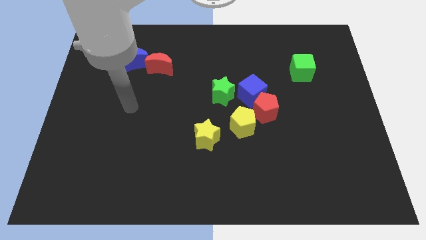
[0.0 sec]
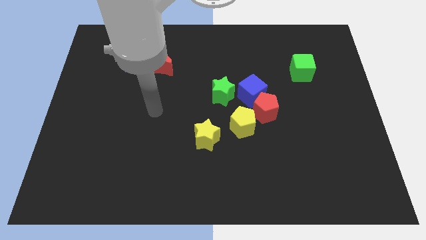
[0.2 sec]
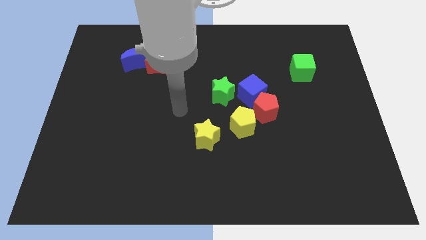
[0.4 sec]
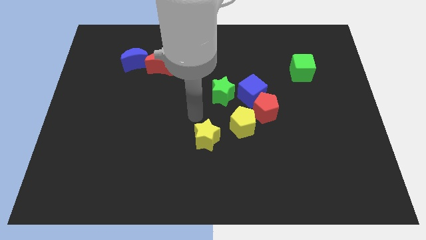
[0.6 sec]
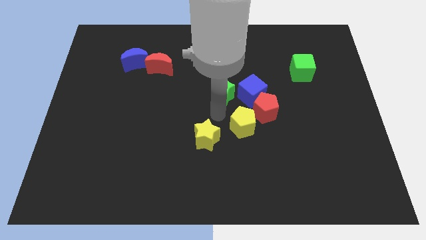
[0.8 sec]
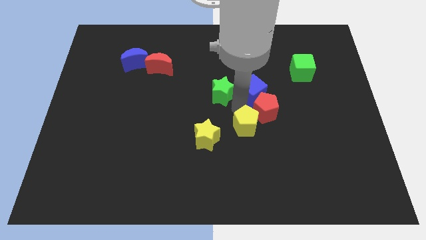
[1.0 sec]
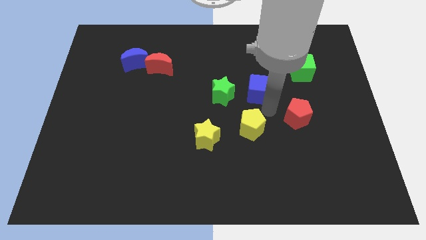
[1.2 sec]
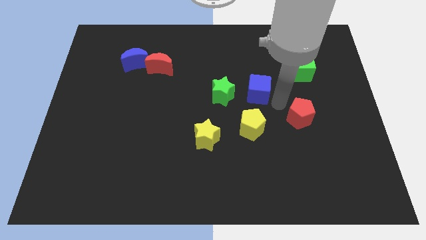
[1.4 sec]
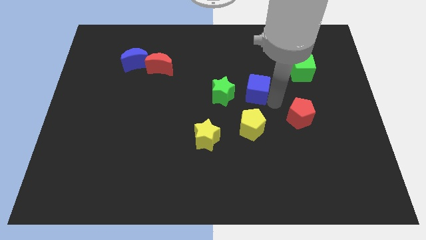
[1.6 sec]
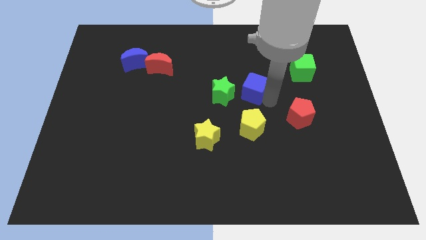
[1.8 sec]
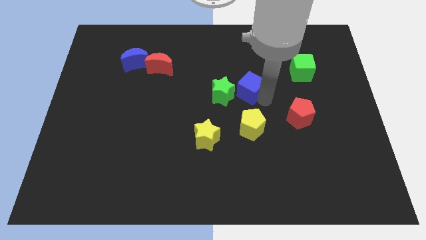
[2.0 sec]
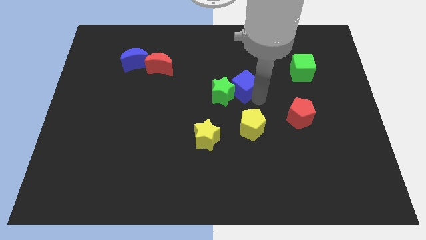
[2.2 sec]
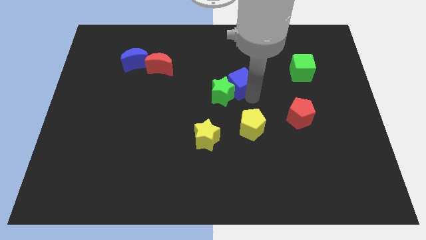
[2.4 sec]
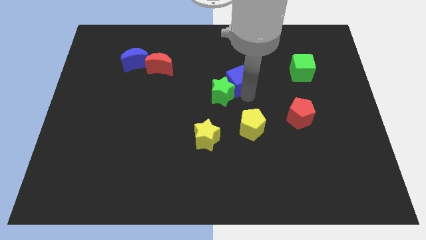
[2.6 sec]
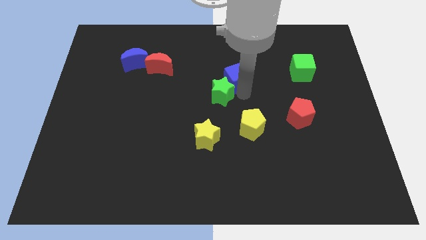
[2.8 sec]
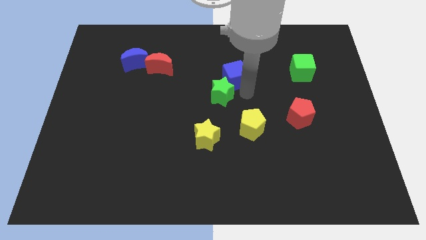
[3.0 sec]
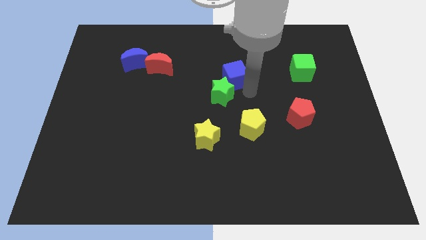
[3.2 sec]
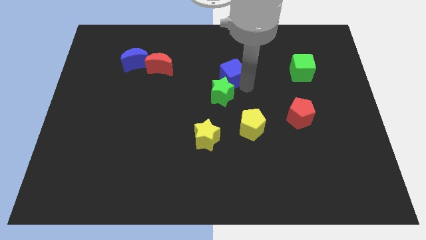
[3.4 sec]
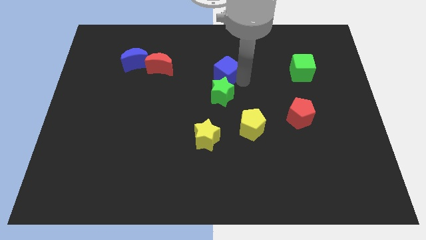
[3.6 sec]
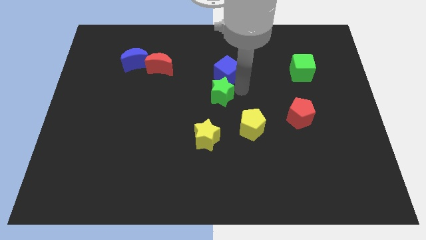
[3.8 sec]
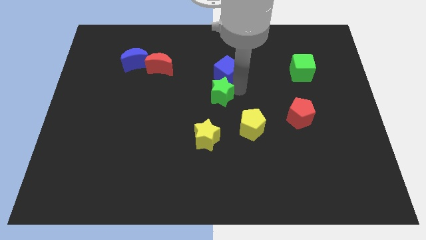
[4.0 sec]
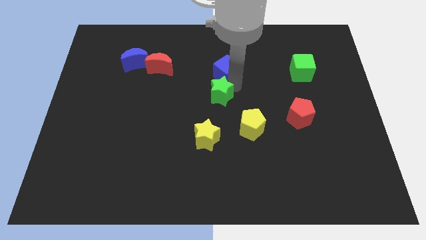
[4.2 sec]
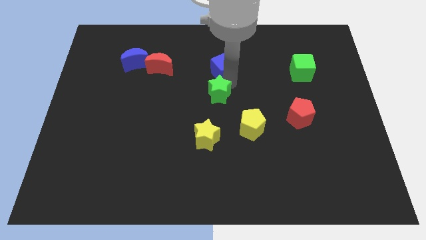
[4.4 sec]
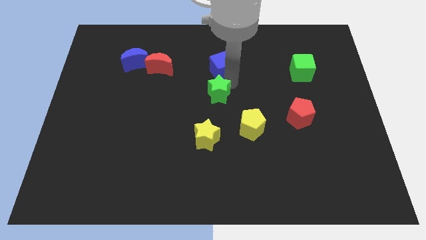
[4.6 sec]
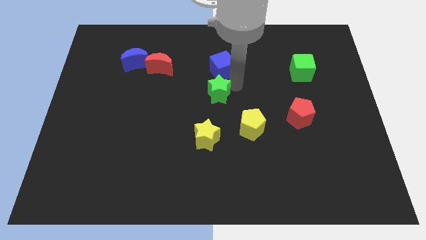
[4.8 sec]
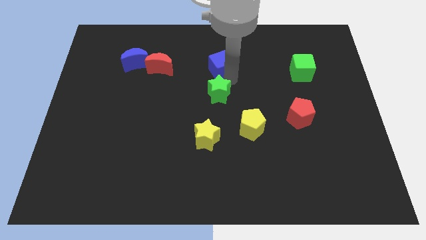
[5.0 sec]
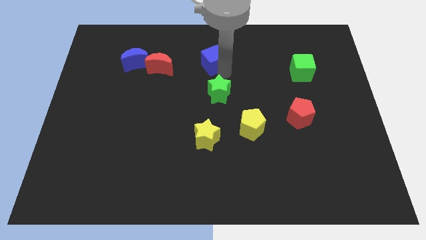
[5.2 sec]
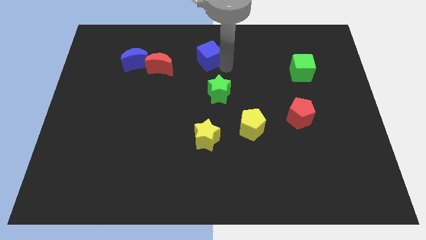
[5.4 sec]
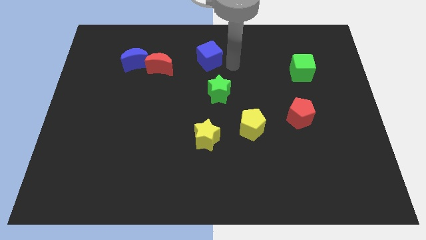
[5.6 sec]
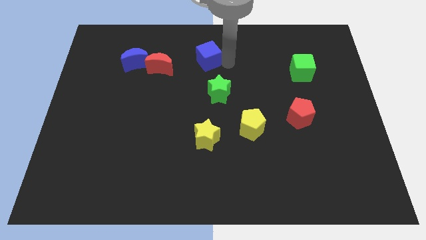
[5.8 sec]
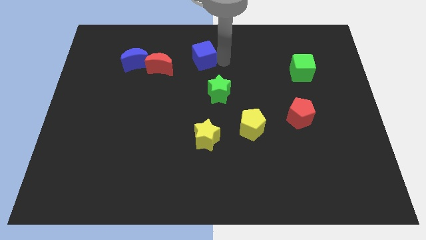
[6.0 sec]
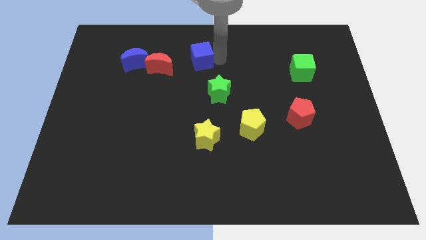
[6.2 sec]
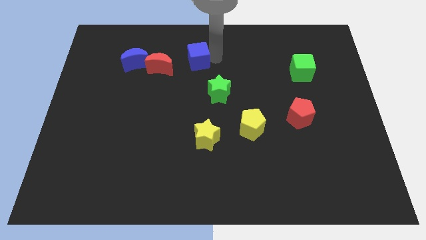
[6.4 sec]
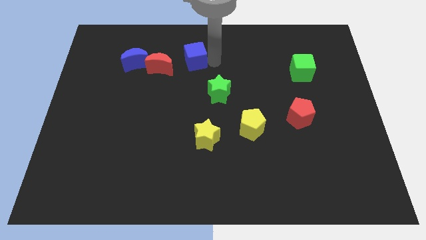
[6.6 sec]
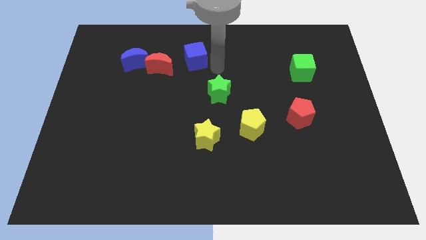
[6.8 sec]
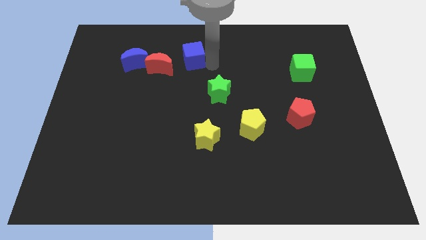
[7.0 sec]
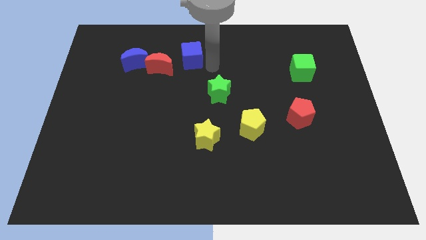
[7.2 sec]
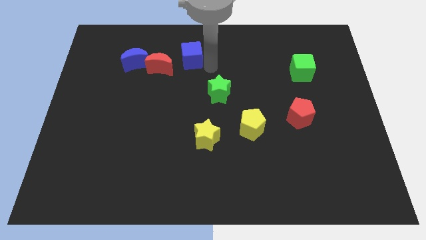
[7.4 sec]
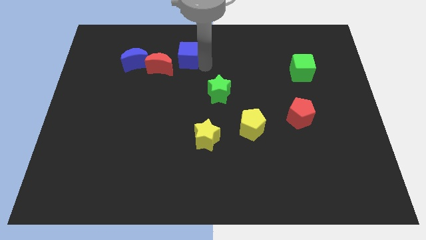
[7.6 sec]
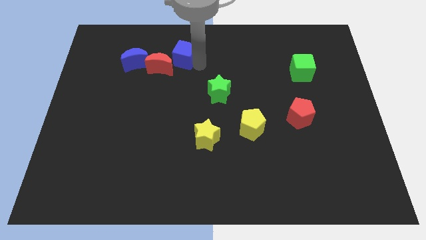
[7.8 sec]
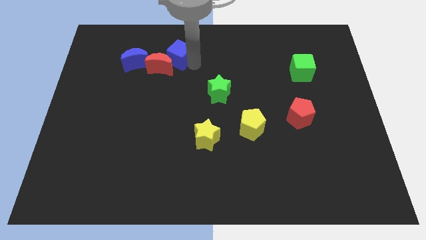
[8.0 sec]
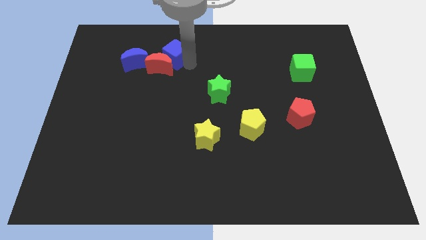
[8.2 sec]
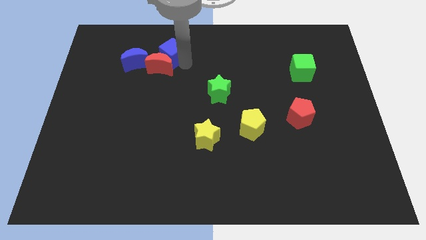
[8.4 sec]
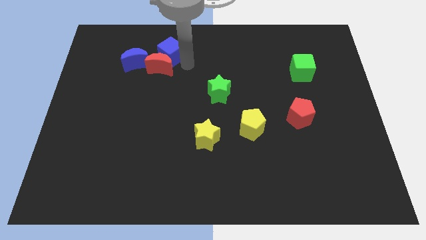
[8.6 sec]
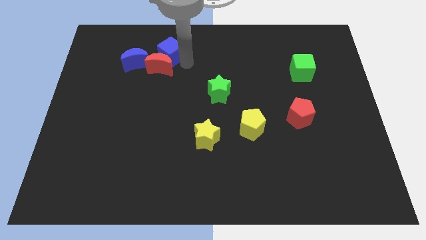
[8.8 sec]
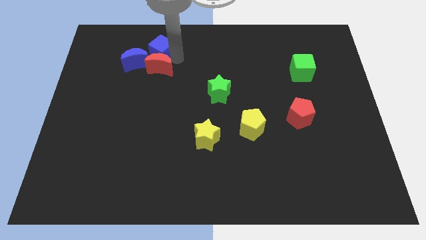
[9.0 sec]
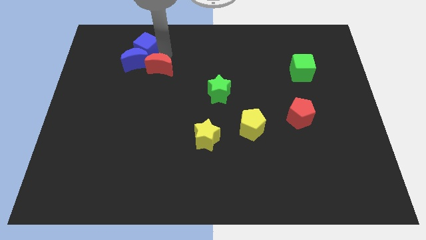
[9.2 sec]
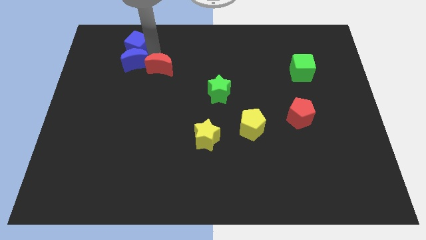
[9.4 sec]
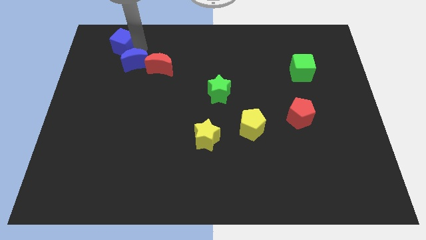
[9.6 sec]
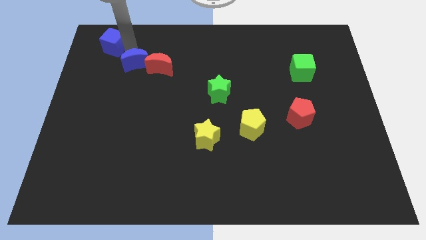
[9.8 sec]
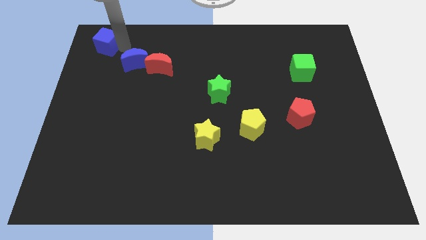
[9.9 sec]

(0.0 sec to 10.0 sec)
push the blue cube to the upper left corner

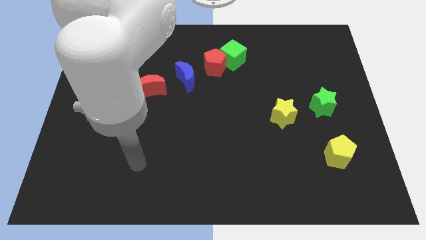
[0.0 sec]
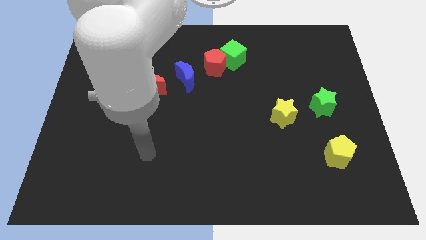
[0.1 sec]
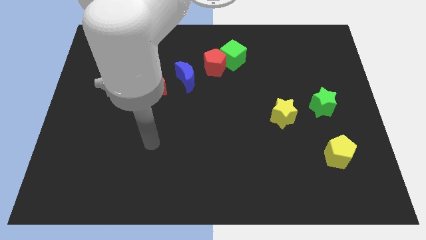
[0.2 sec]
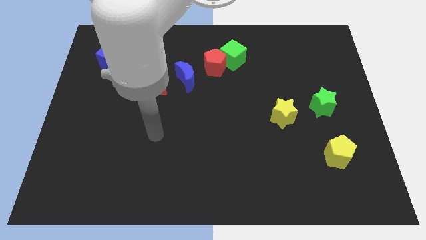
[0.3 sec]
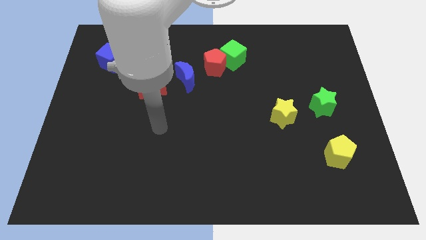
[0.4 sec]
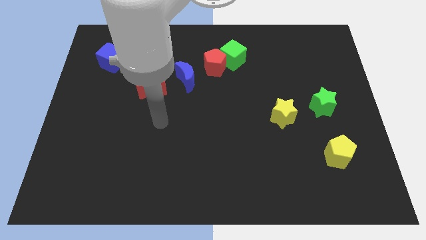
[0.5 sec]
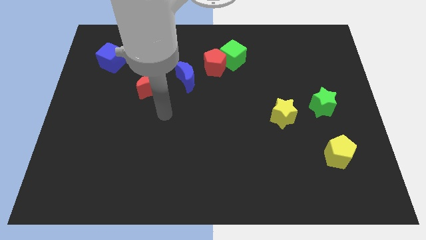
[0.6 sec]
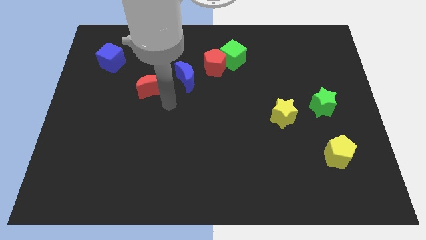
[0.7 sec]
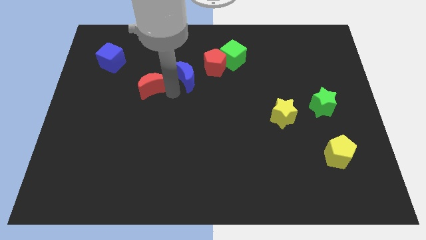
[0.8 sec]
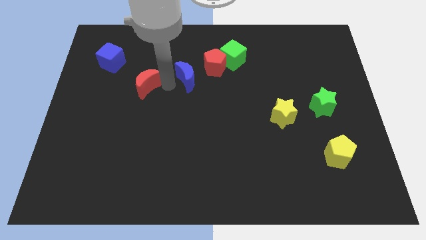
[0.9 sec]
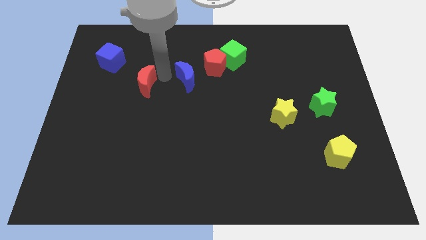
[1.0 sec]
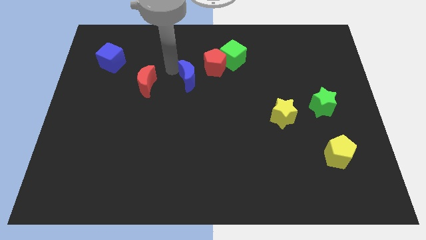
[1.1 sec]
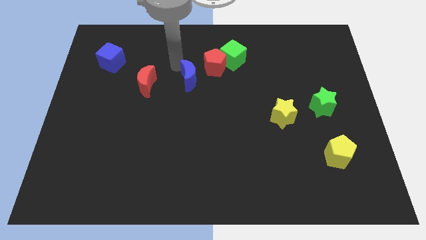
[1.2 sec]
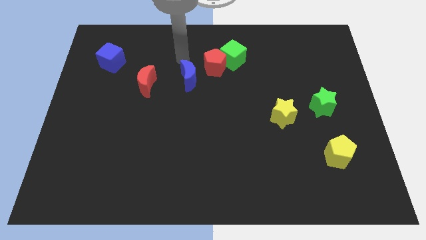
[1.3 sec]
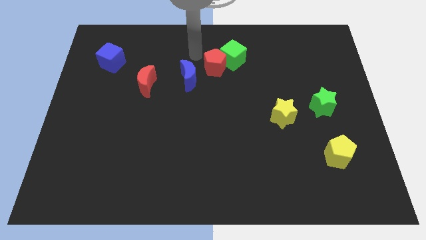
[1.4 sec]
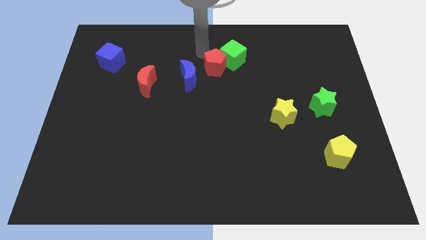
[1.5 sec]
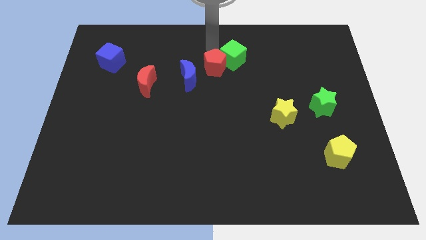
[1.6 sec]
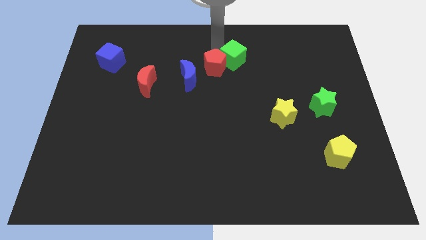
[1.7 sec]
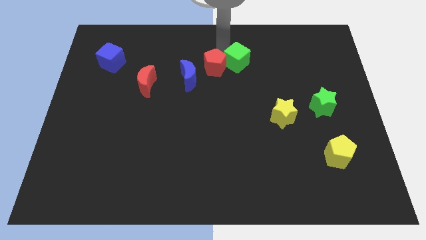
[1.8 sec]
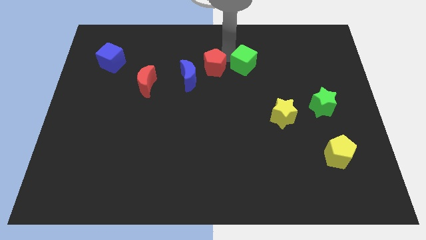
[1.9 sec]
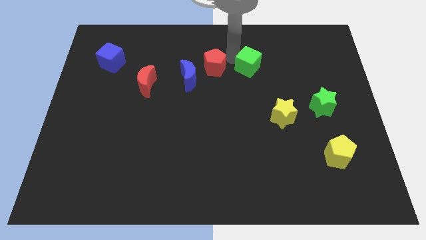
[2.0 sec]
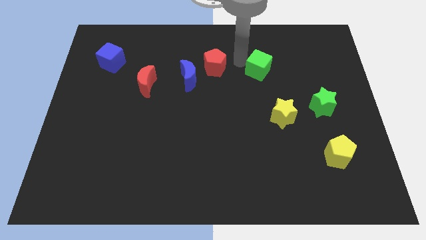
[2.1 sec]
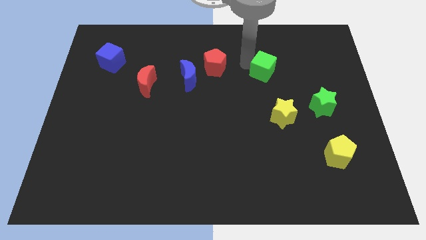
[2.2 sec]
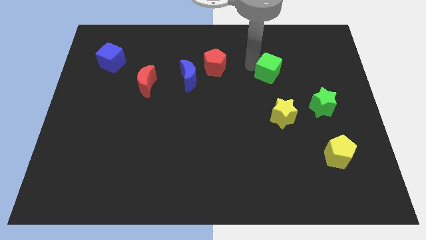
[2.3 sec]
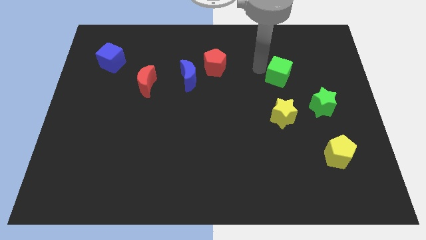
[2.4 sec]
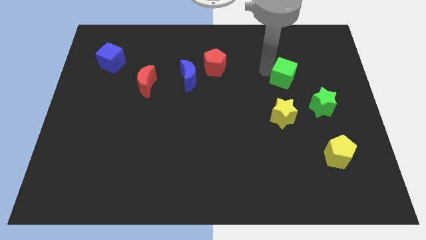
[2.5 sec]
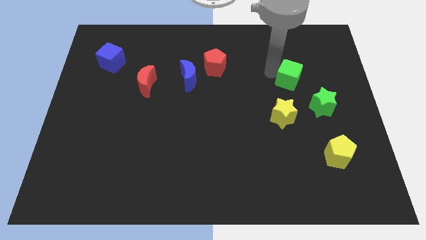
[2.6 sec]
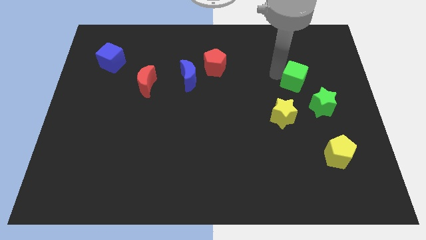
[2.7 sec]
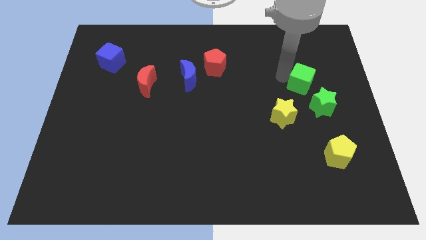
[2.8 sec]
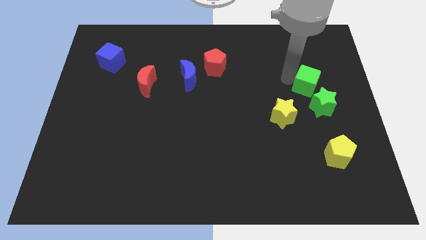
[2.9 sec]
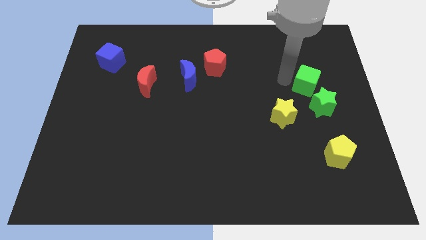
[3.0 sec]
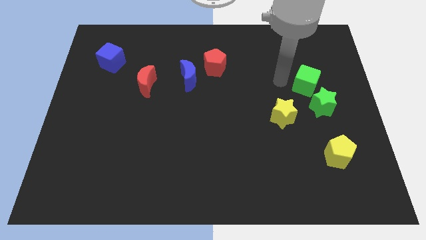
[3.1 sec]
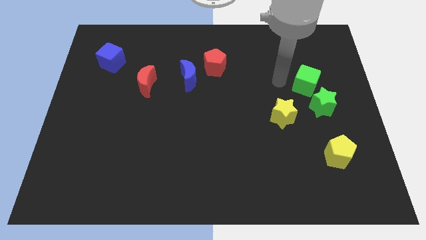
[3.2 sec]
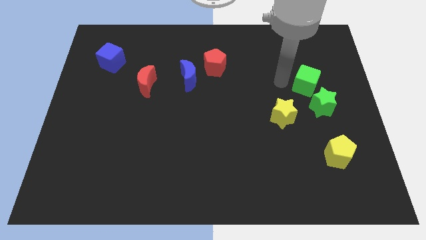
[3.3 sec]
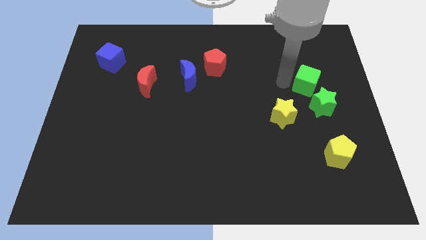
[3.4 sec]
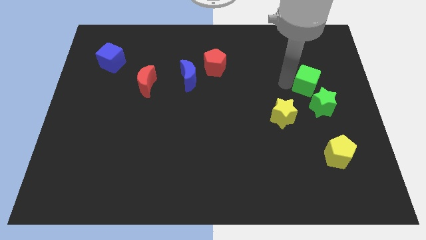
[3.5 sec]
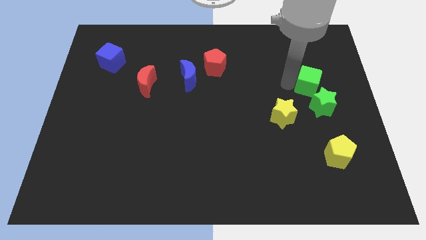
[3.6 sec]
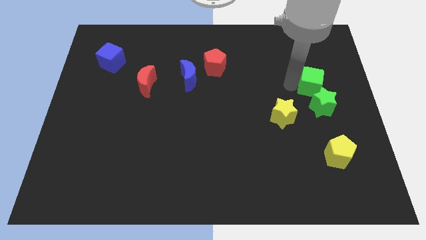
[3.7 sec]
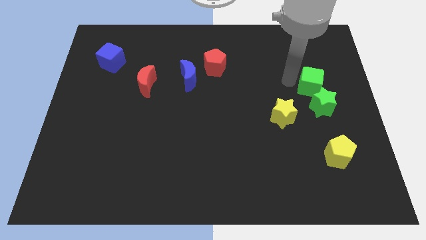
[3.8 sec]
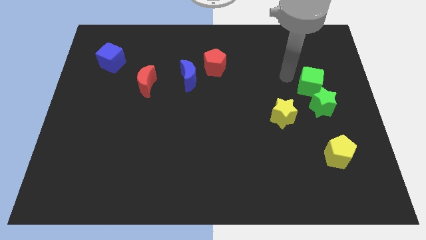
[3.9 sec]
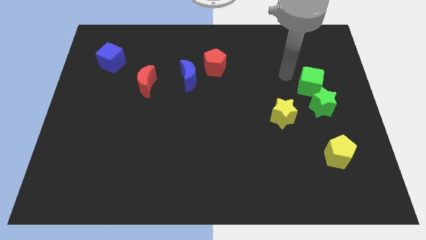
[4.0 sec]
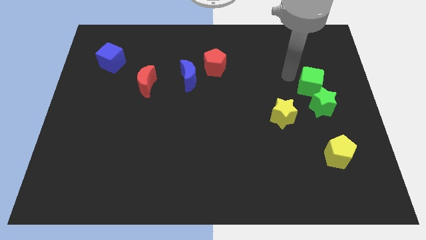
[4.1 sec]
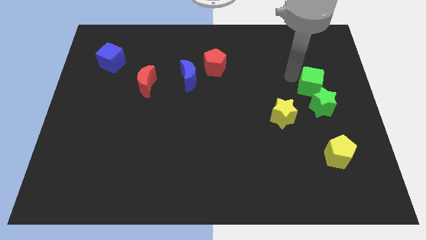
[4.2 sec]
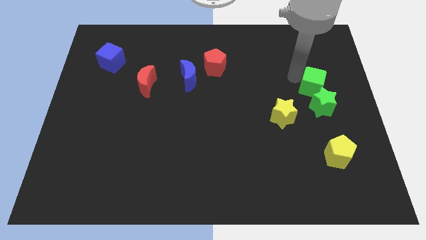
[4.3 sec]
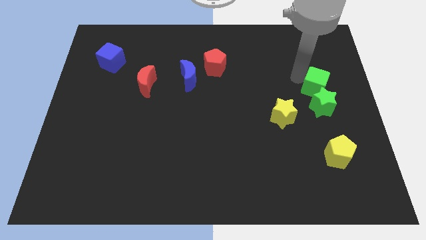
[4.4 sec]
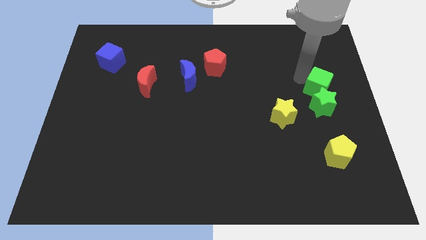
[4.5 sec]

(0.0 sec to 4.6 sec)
move the green cube to the center right
